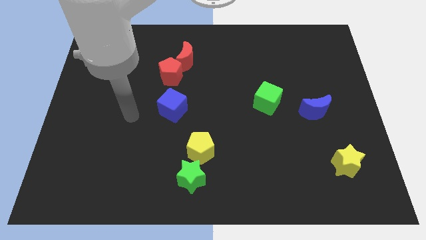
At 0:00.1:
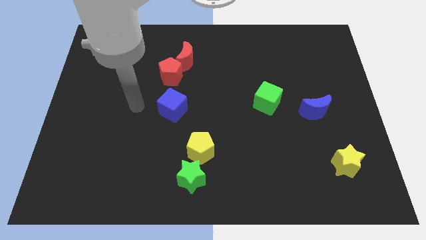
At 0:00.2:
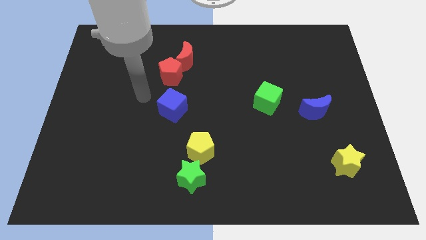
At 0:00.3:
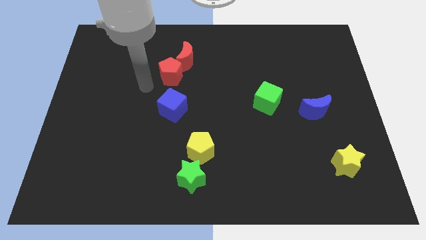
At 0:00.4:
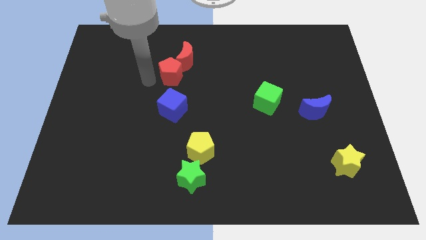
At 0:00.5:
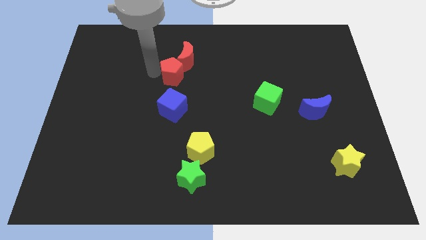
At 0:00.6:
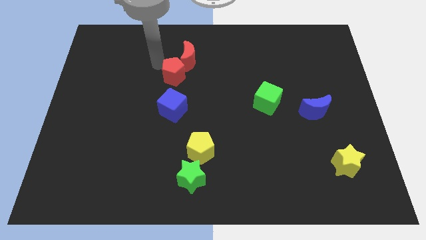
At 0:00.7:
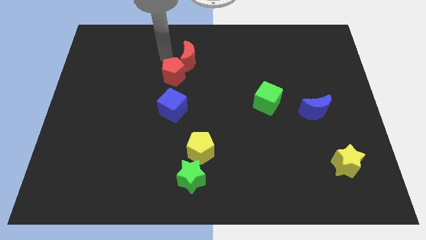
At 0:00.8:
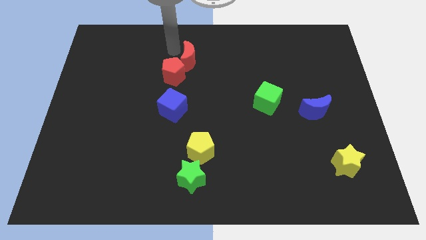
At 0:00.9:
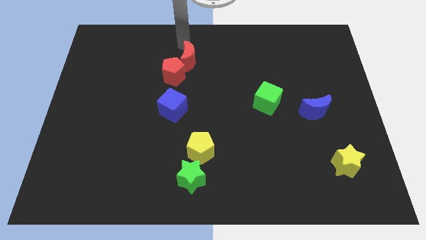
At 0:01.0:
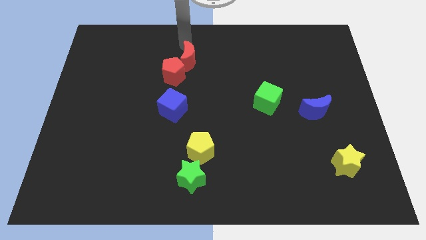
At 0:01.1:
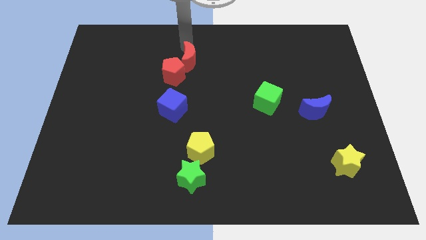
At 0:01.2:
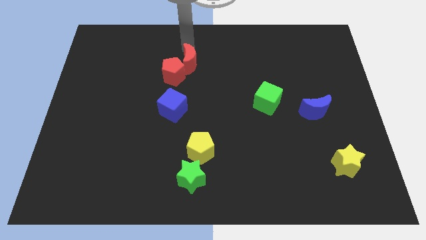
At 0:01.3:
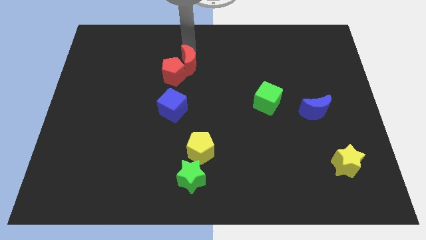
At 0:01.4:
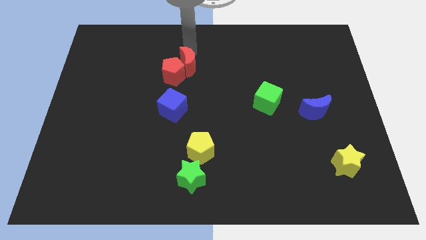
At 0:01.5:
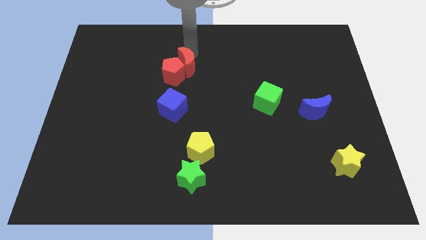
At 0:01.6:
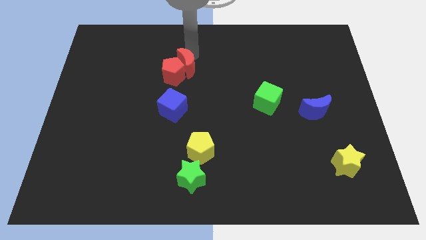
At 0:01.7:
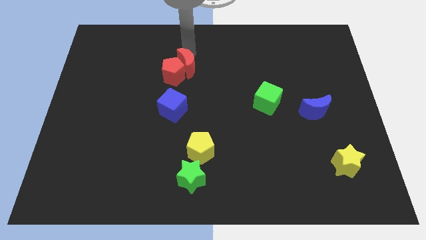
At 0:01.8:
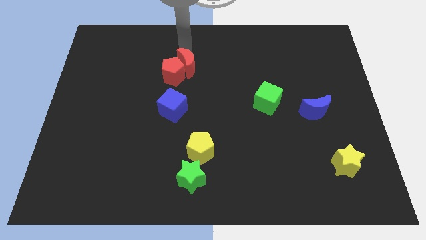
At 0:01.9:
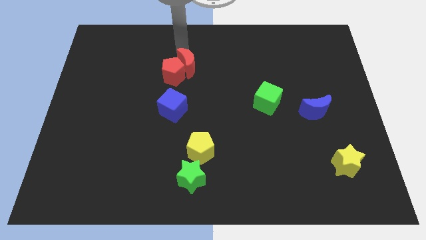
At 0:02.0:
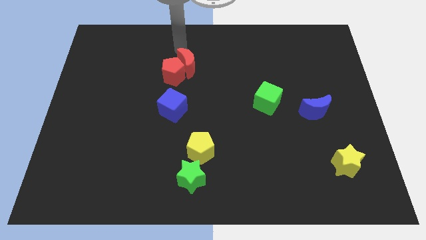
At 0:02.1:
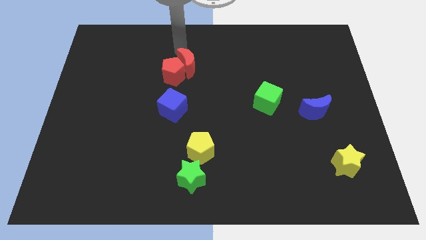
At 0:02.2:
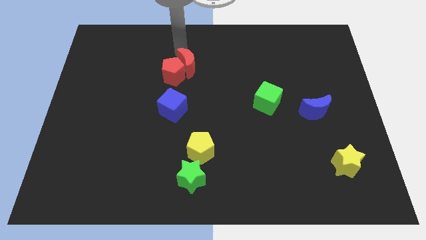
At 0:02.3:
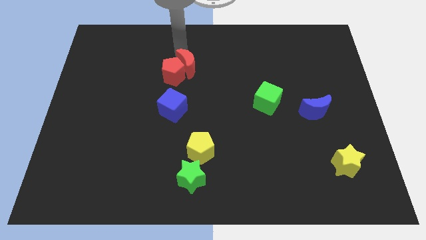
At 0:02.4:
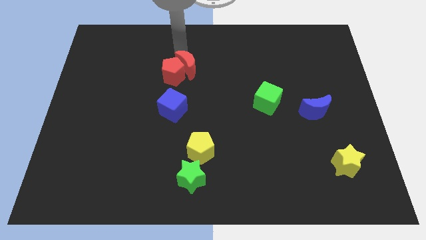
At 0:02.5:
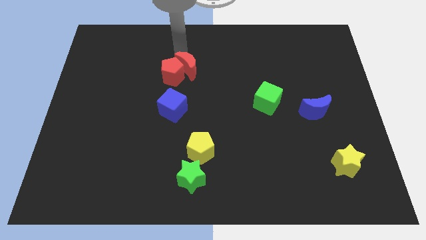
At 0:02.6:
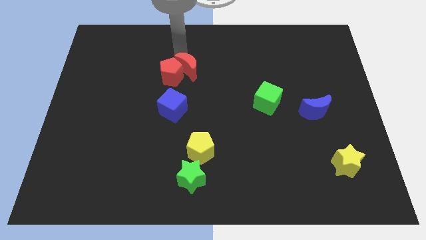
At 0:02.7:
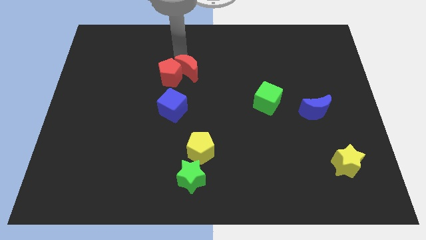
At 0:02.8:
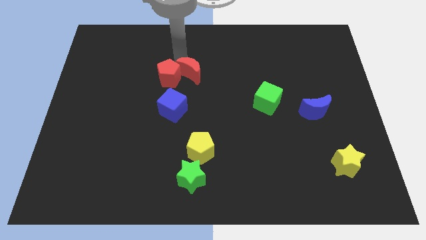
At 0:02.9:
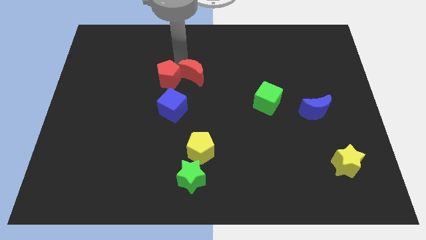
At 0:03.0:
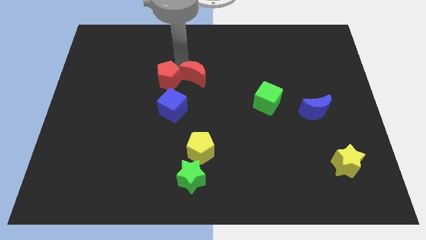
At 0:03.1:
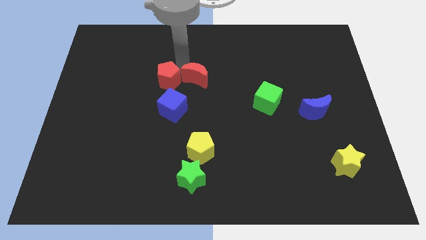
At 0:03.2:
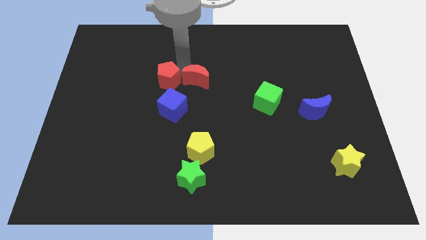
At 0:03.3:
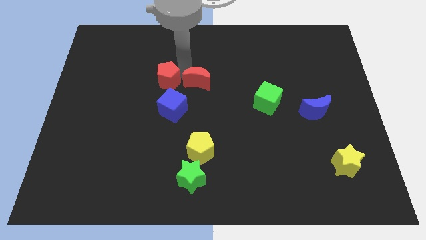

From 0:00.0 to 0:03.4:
slide the red moon slightly down

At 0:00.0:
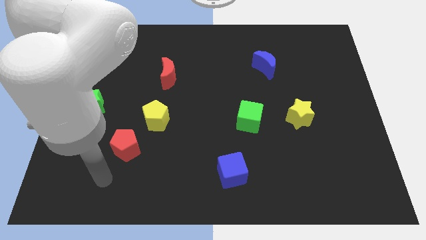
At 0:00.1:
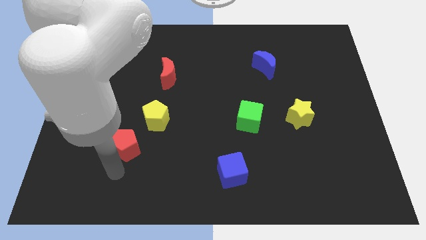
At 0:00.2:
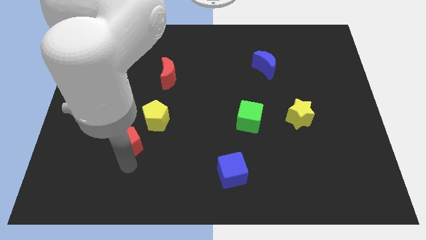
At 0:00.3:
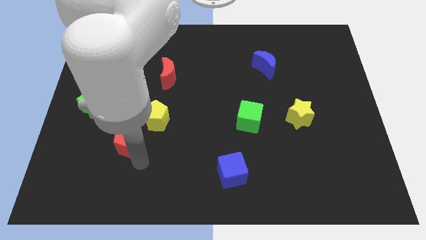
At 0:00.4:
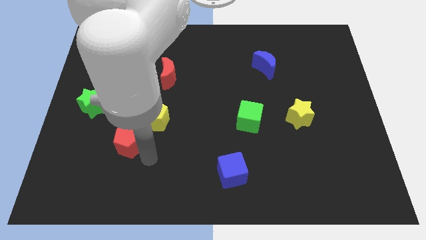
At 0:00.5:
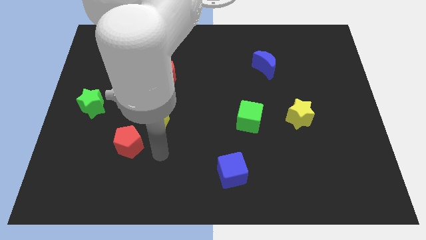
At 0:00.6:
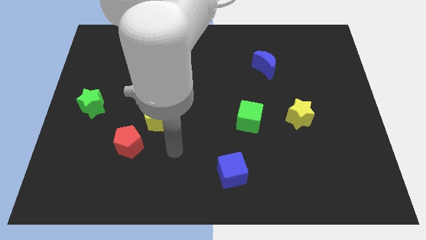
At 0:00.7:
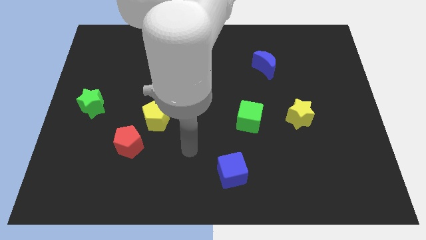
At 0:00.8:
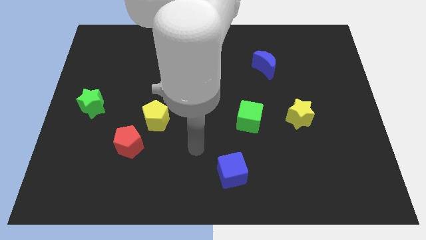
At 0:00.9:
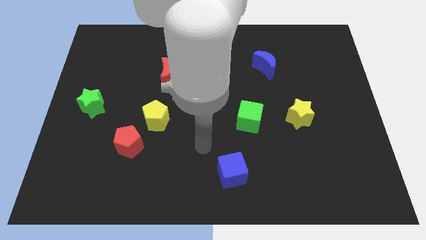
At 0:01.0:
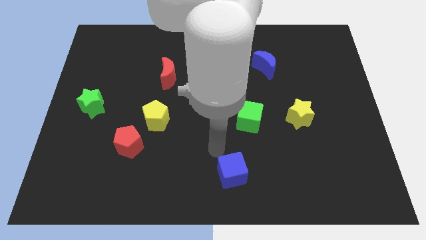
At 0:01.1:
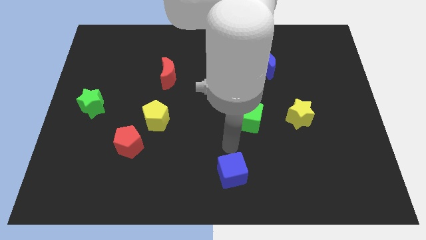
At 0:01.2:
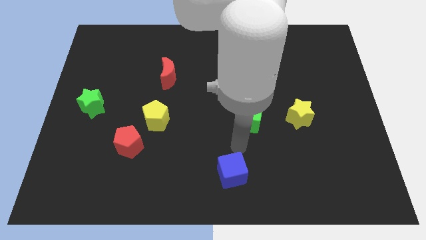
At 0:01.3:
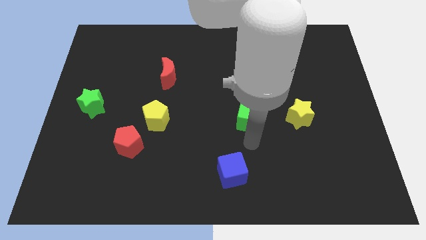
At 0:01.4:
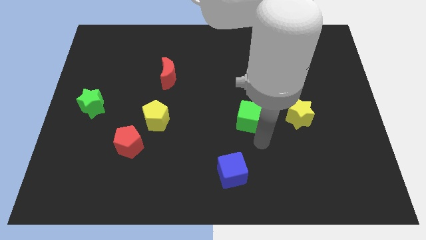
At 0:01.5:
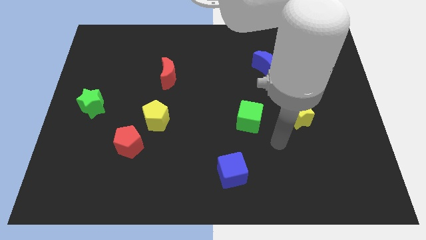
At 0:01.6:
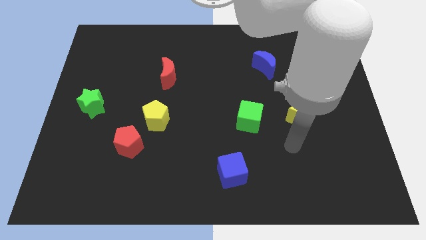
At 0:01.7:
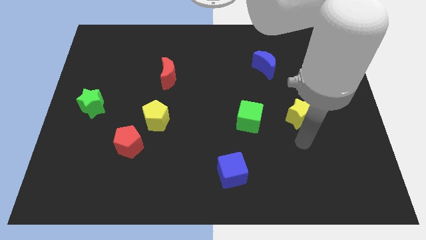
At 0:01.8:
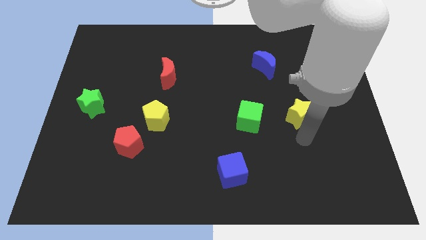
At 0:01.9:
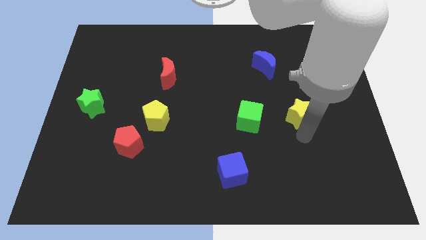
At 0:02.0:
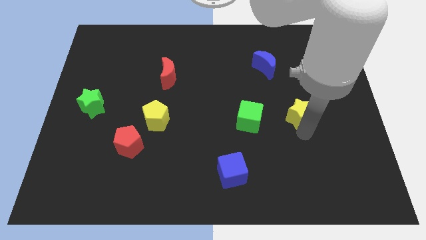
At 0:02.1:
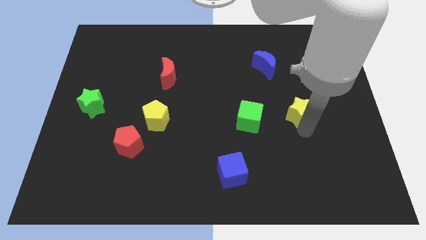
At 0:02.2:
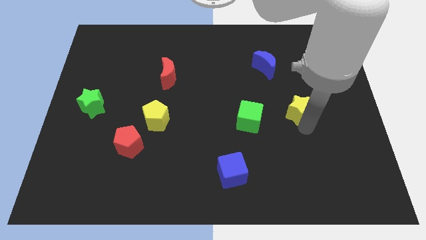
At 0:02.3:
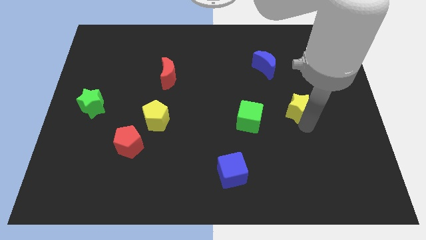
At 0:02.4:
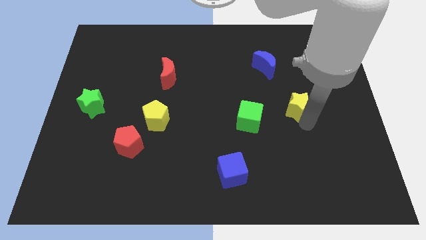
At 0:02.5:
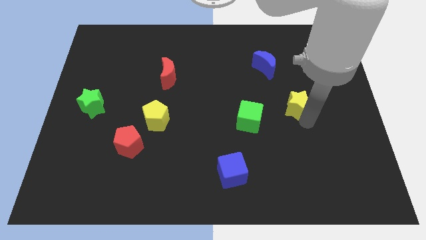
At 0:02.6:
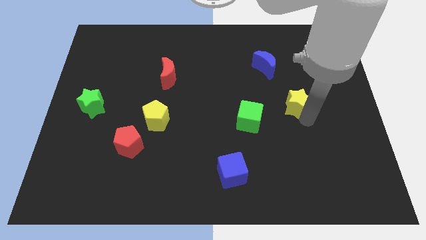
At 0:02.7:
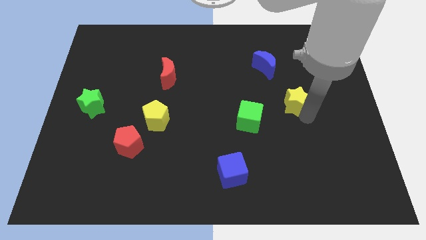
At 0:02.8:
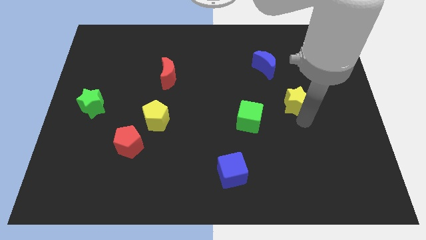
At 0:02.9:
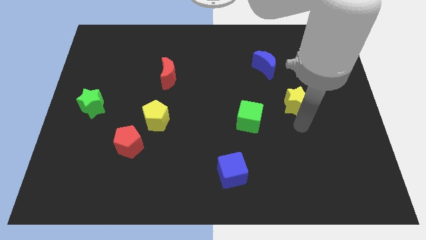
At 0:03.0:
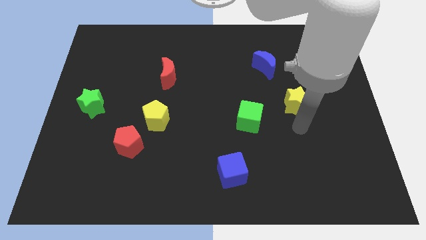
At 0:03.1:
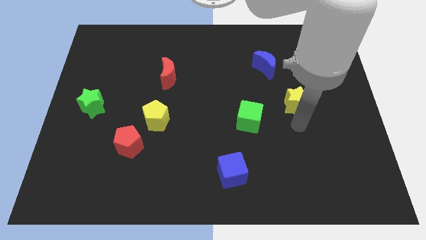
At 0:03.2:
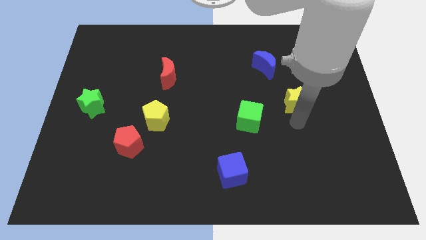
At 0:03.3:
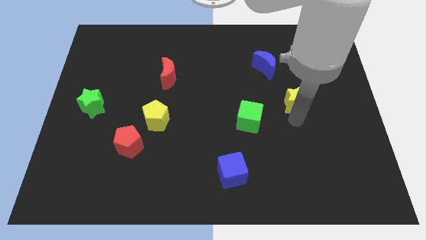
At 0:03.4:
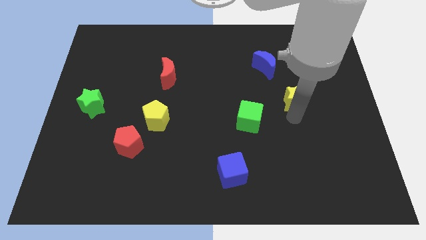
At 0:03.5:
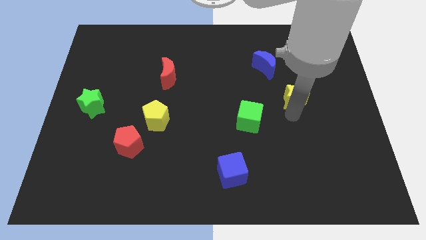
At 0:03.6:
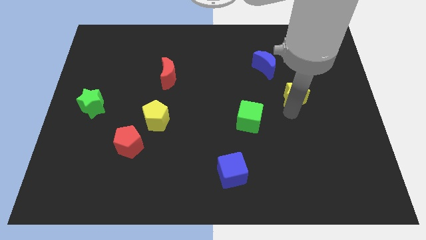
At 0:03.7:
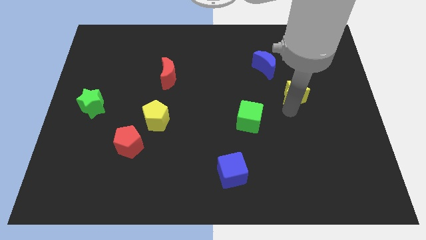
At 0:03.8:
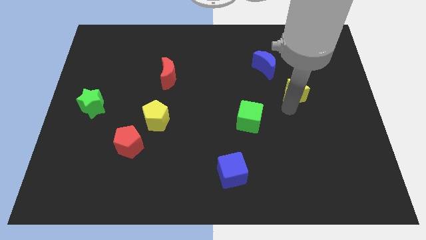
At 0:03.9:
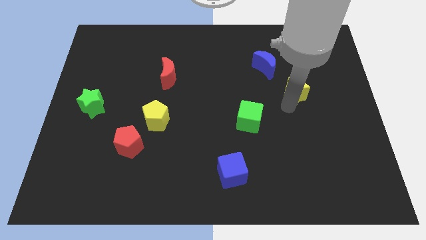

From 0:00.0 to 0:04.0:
move the yellow star a little bit upwards

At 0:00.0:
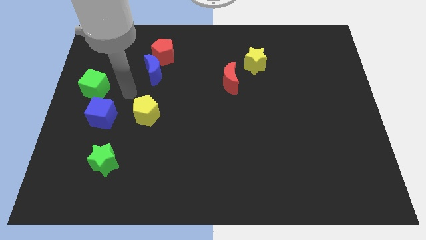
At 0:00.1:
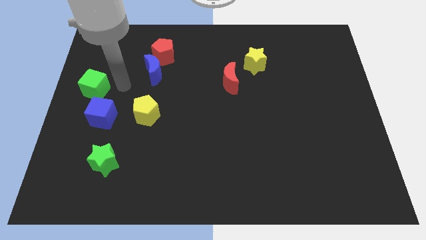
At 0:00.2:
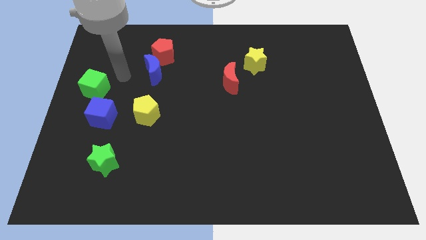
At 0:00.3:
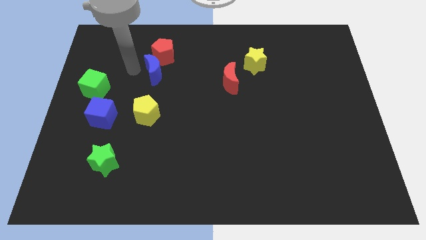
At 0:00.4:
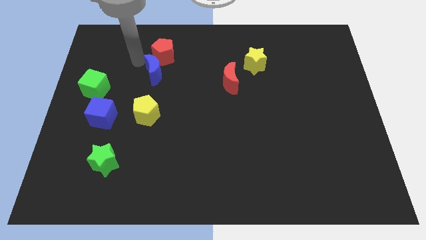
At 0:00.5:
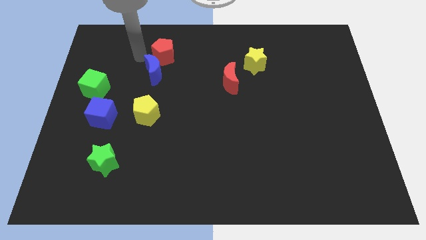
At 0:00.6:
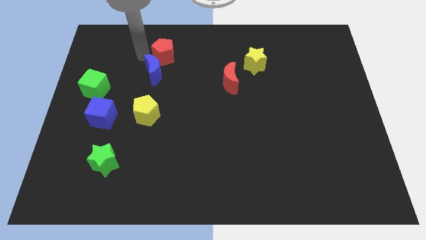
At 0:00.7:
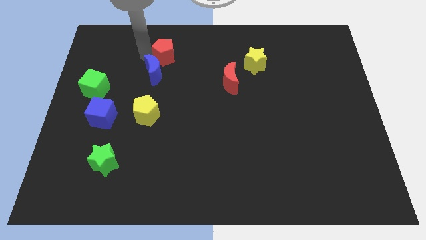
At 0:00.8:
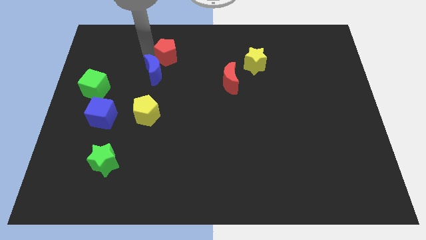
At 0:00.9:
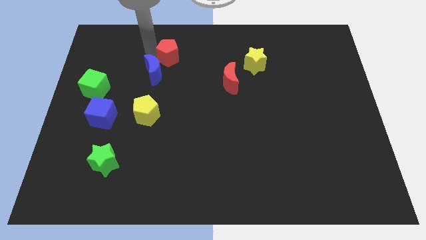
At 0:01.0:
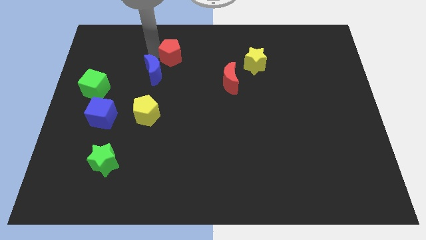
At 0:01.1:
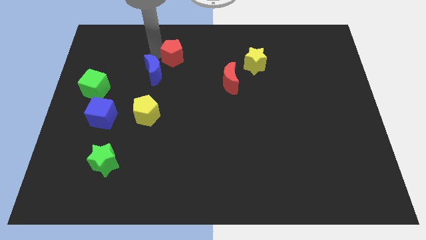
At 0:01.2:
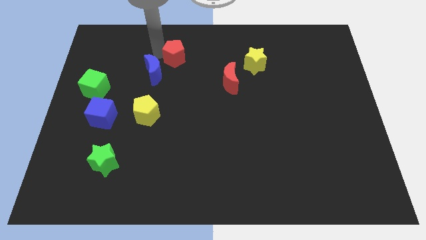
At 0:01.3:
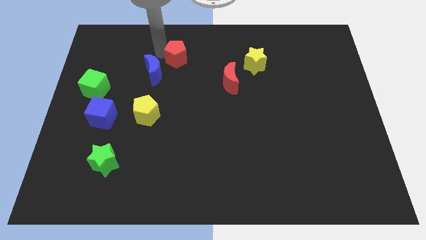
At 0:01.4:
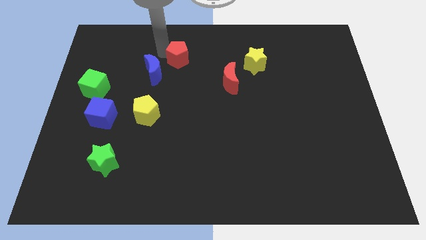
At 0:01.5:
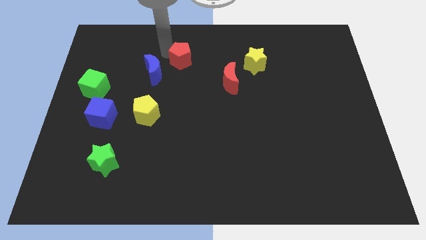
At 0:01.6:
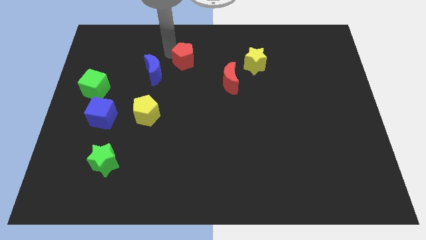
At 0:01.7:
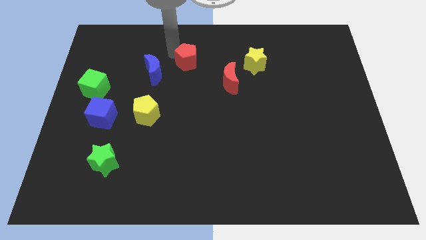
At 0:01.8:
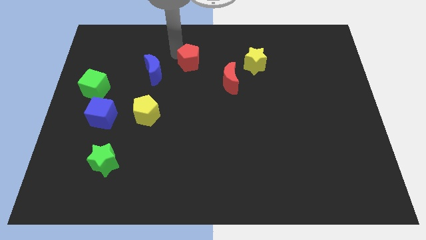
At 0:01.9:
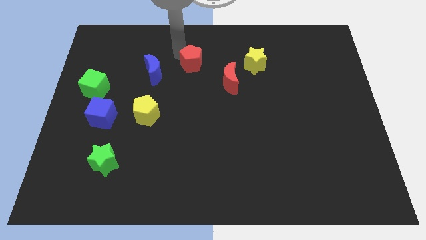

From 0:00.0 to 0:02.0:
move the red pentagon right a little
